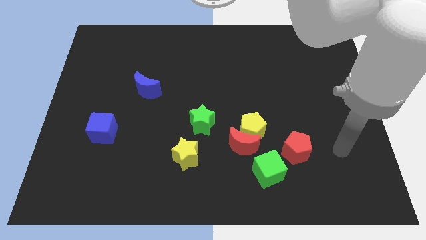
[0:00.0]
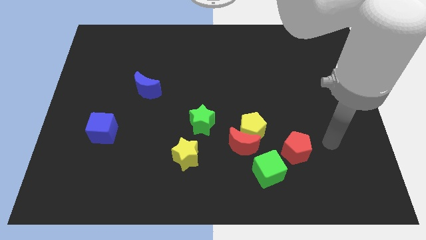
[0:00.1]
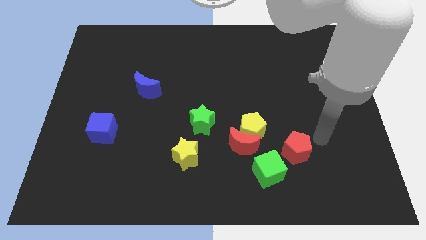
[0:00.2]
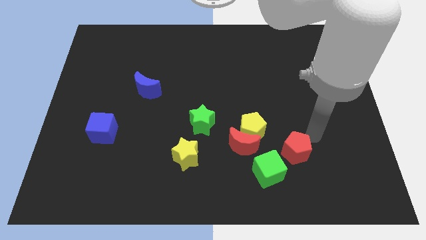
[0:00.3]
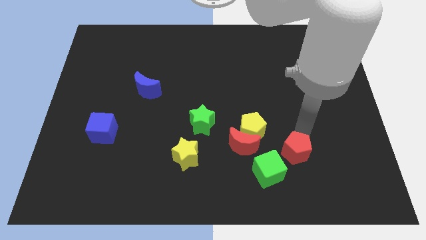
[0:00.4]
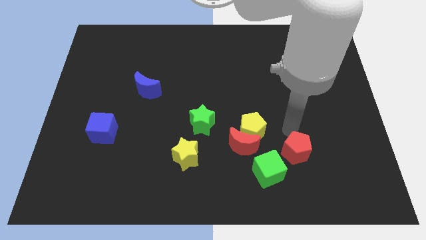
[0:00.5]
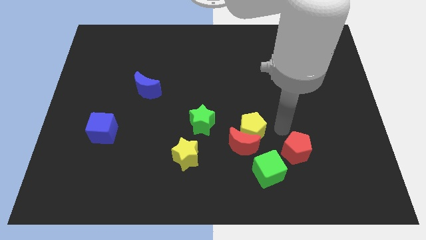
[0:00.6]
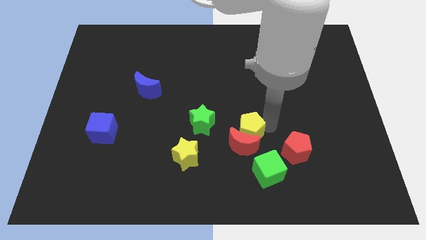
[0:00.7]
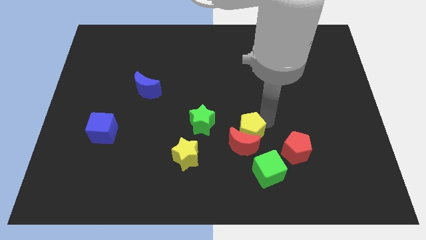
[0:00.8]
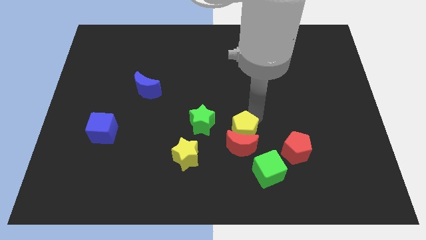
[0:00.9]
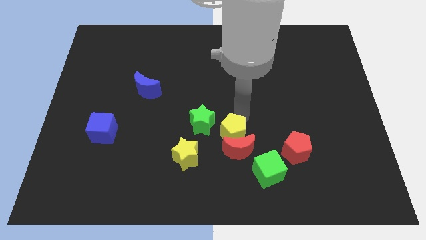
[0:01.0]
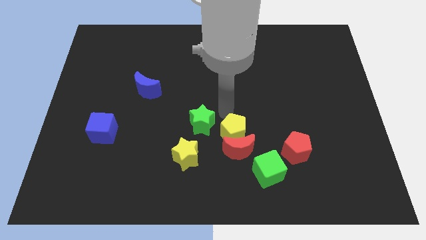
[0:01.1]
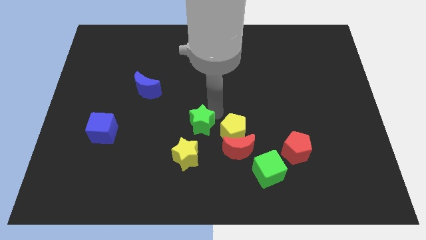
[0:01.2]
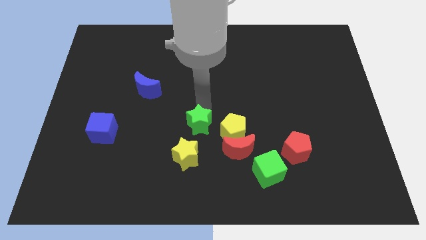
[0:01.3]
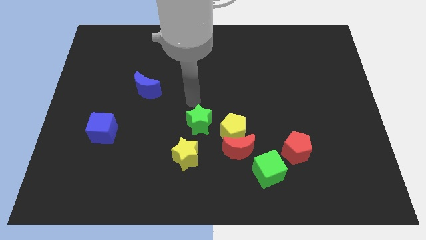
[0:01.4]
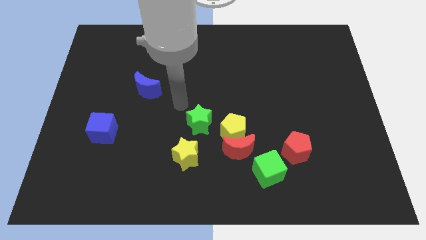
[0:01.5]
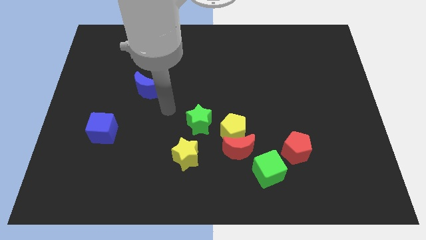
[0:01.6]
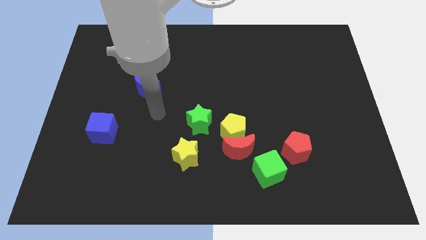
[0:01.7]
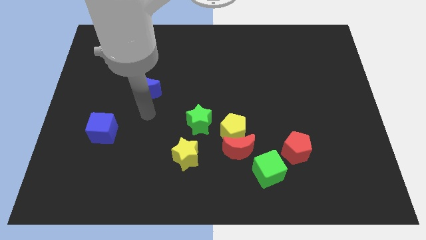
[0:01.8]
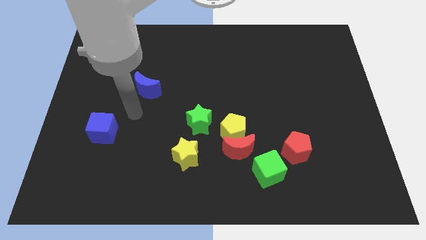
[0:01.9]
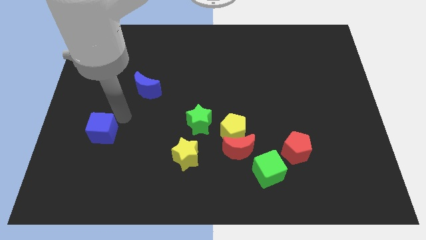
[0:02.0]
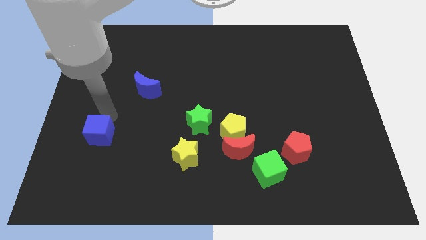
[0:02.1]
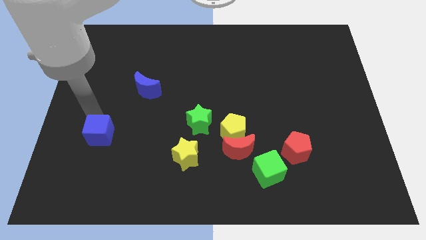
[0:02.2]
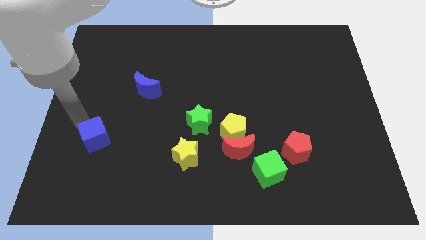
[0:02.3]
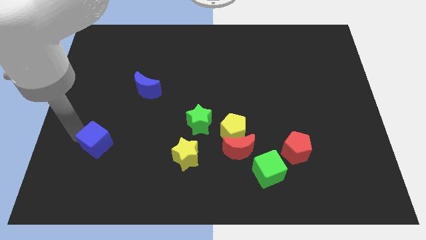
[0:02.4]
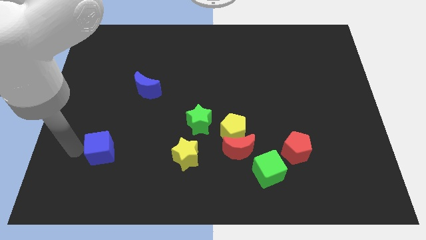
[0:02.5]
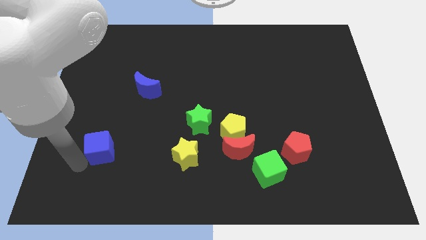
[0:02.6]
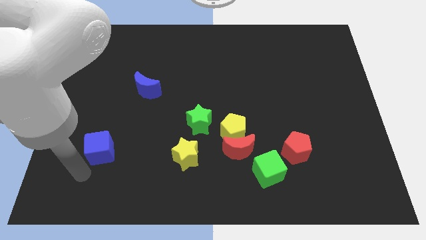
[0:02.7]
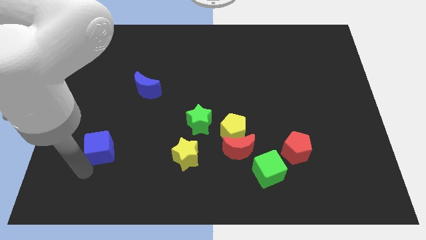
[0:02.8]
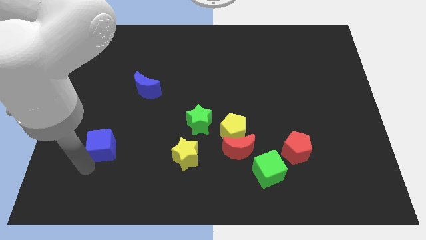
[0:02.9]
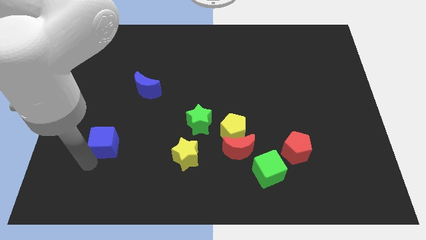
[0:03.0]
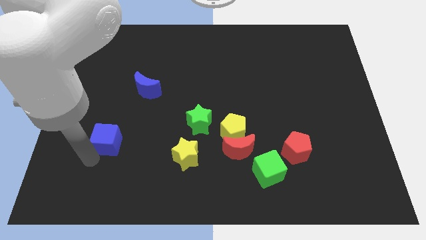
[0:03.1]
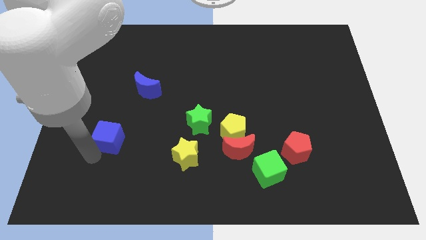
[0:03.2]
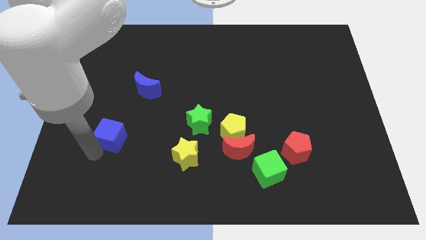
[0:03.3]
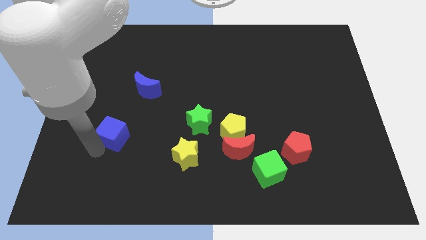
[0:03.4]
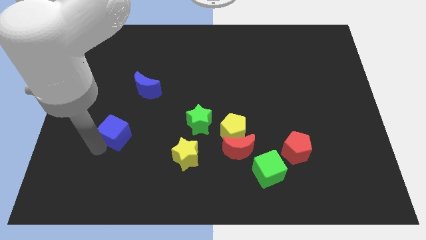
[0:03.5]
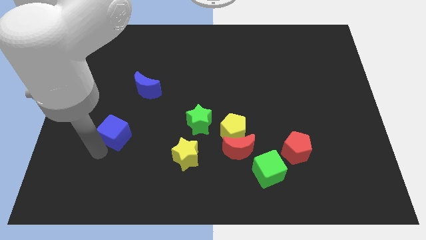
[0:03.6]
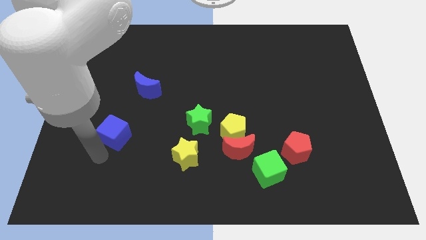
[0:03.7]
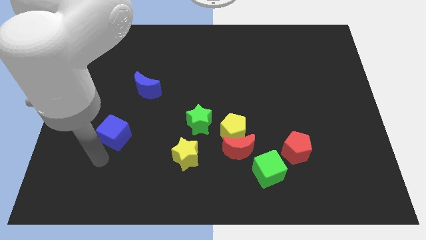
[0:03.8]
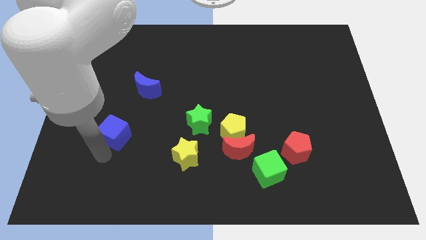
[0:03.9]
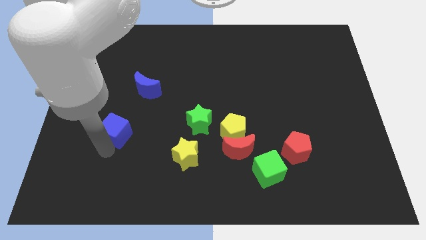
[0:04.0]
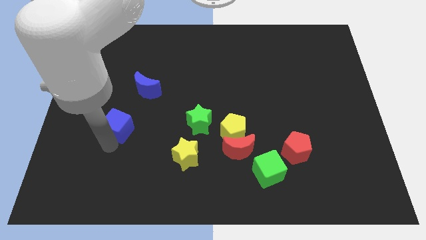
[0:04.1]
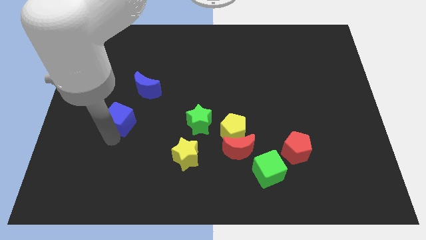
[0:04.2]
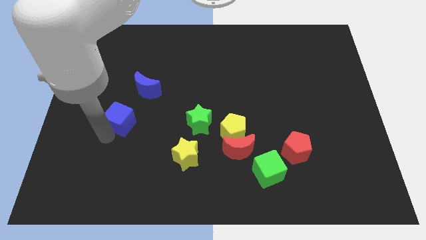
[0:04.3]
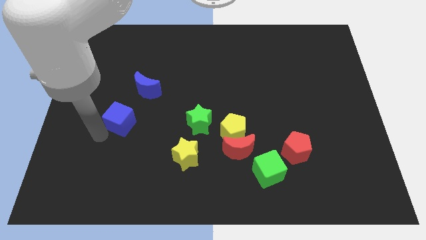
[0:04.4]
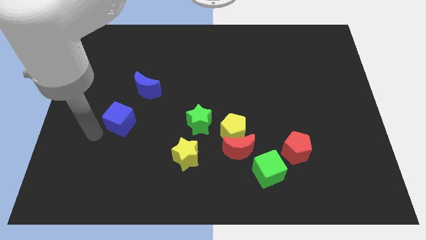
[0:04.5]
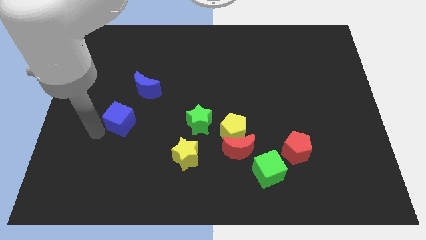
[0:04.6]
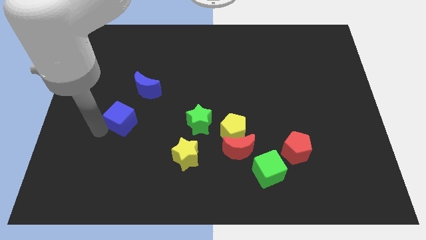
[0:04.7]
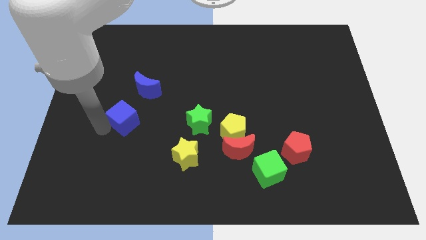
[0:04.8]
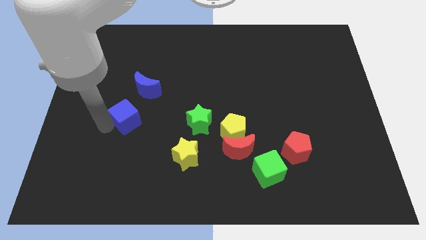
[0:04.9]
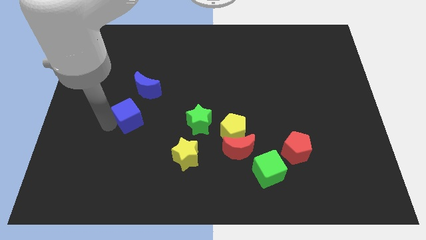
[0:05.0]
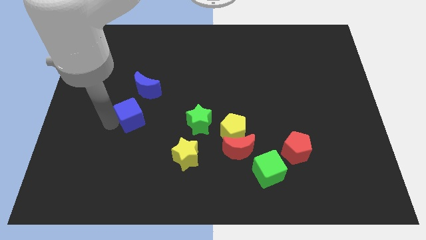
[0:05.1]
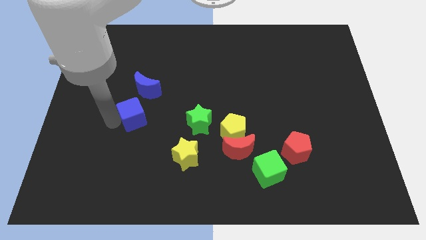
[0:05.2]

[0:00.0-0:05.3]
slide the blue cube a little bit up and to the right

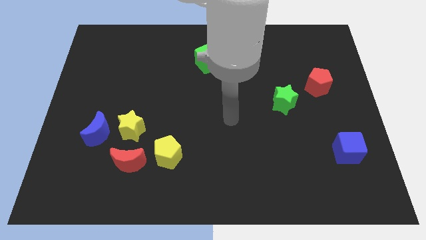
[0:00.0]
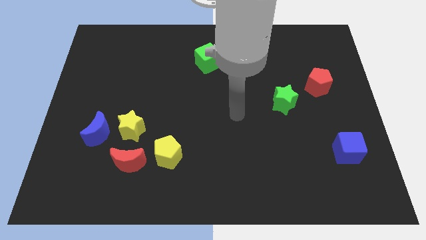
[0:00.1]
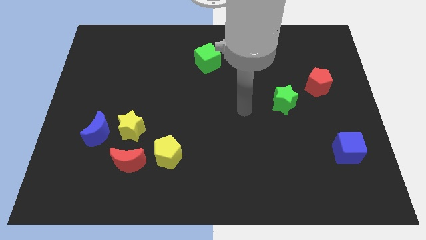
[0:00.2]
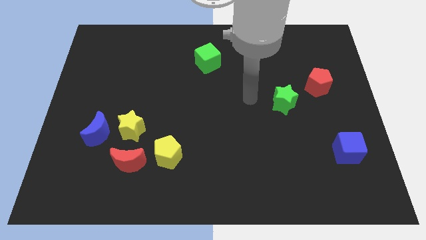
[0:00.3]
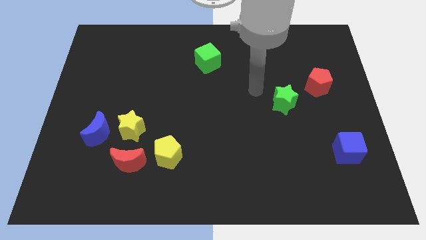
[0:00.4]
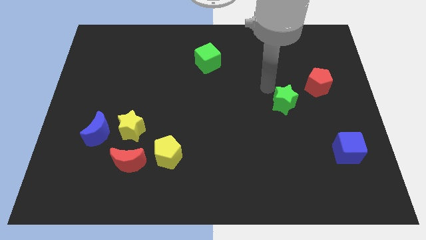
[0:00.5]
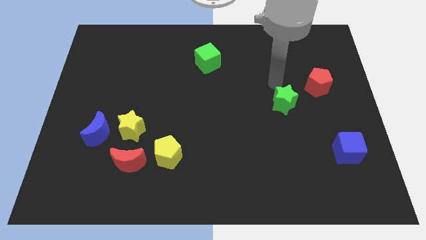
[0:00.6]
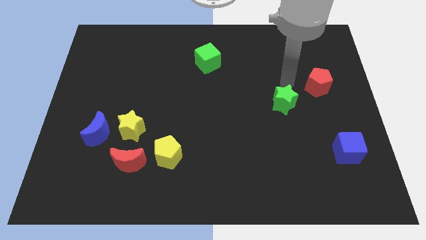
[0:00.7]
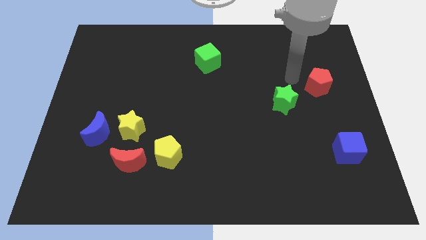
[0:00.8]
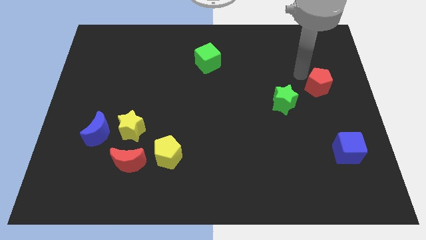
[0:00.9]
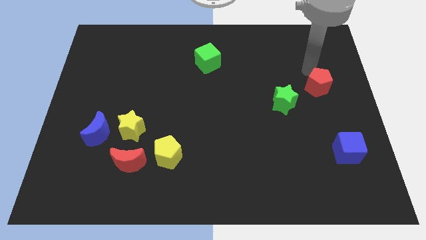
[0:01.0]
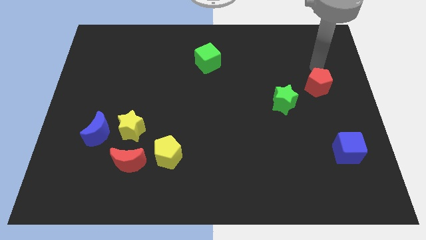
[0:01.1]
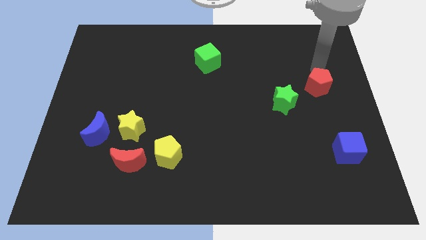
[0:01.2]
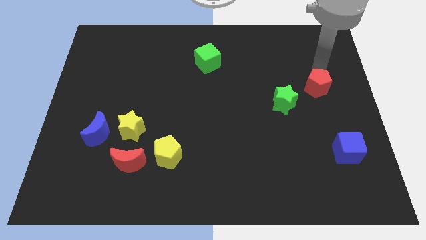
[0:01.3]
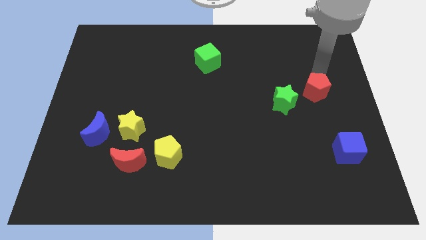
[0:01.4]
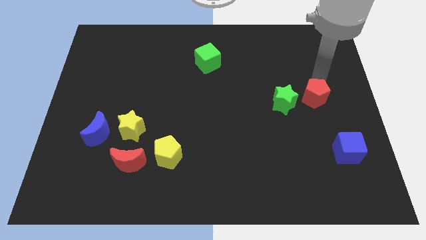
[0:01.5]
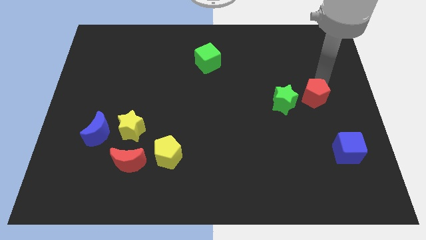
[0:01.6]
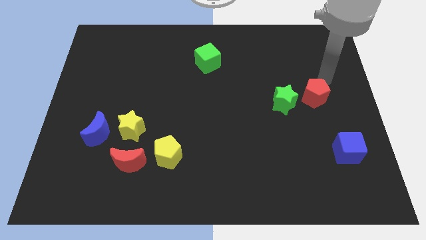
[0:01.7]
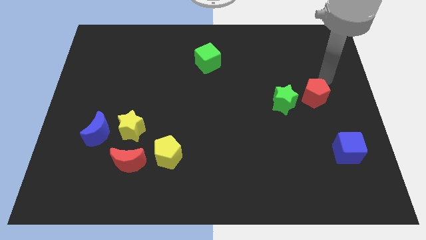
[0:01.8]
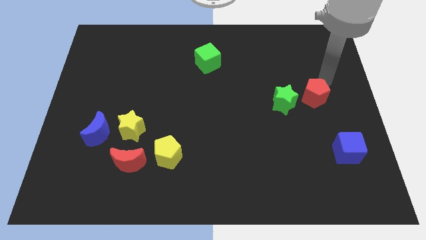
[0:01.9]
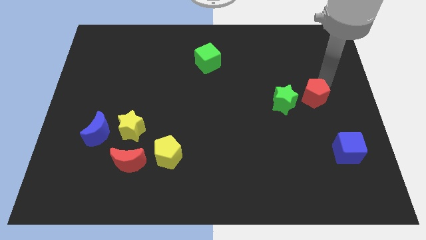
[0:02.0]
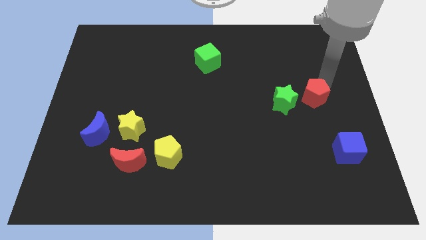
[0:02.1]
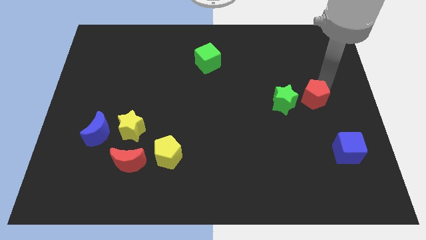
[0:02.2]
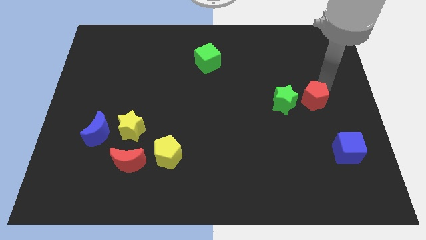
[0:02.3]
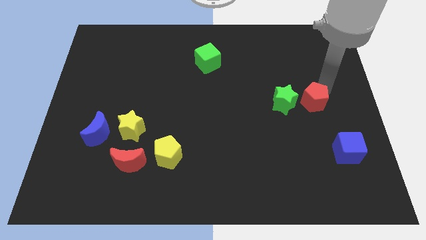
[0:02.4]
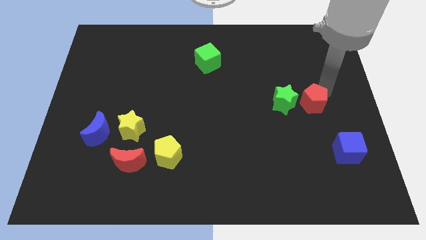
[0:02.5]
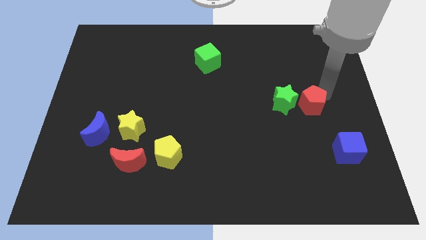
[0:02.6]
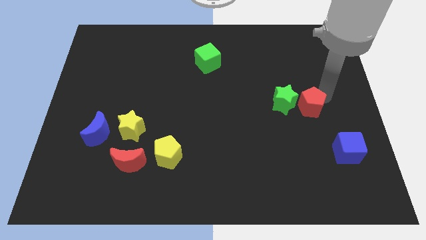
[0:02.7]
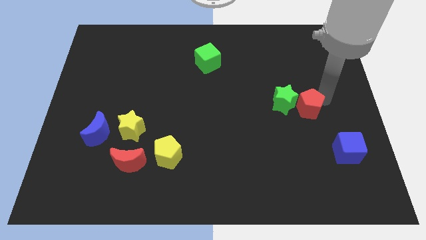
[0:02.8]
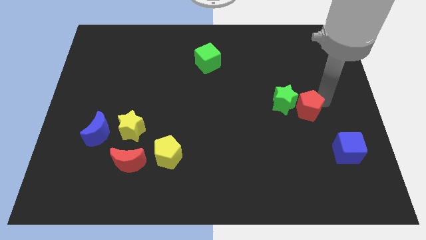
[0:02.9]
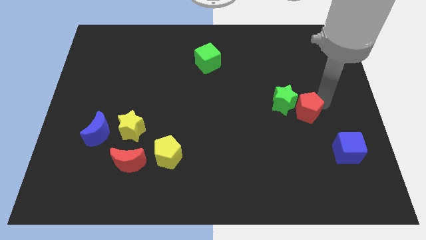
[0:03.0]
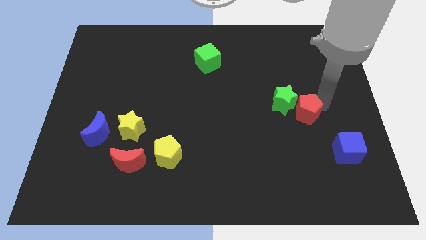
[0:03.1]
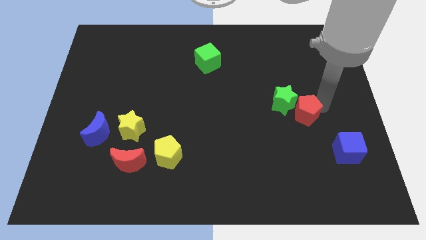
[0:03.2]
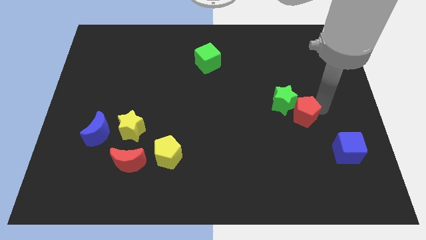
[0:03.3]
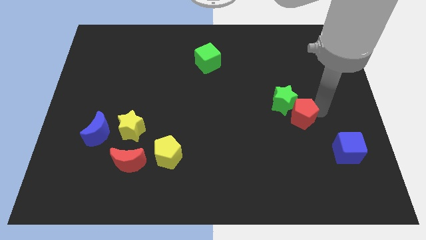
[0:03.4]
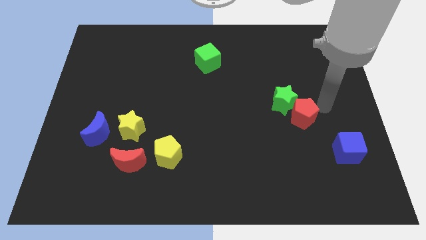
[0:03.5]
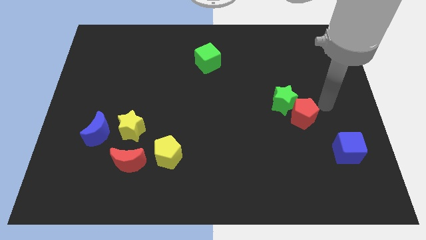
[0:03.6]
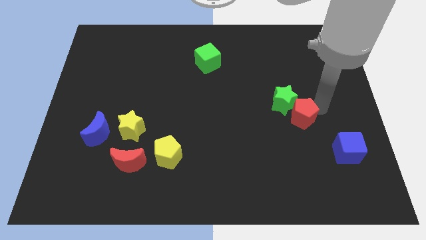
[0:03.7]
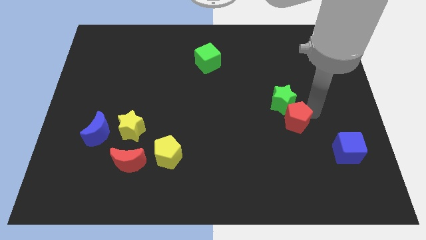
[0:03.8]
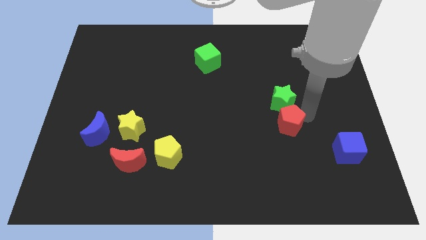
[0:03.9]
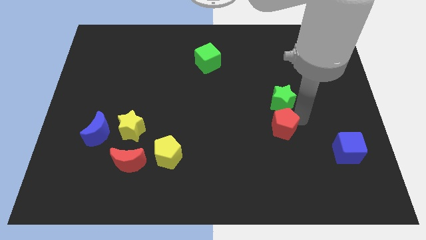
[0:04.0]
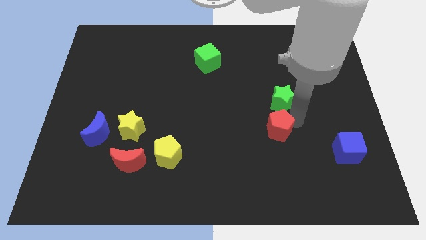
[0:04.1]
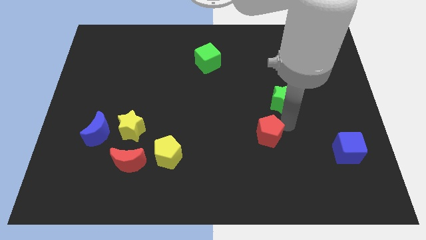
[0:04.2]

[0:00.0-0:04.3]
move the red pentagon downwards and then to the left
